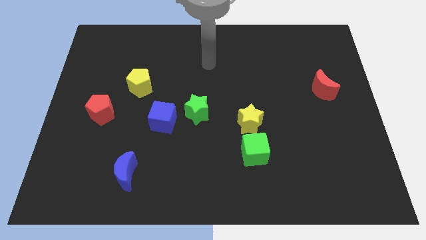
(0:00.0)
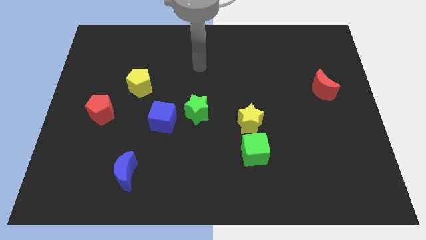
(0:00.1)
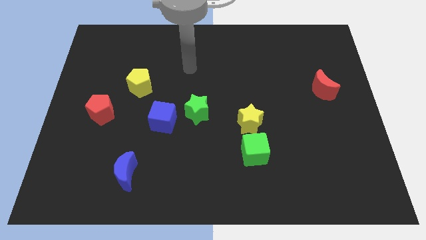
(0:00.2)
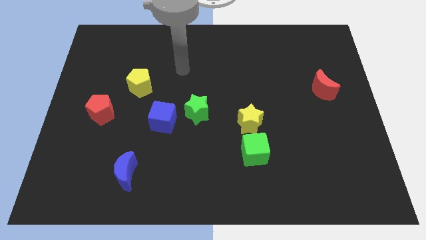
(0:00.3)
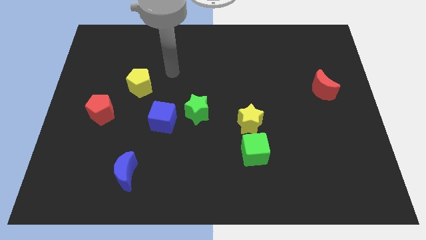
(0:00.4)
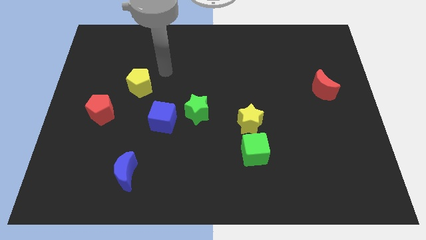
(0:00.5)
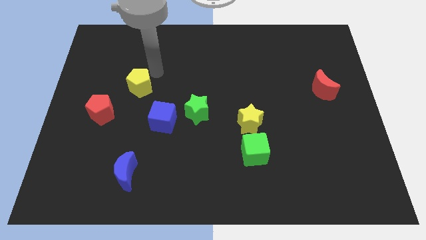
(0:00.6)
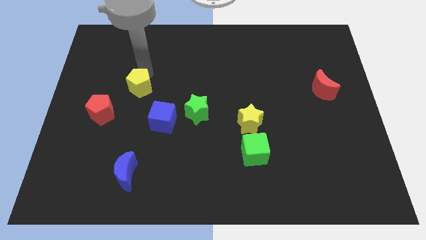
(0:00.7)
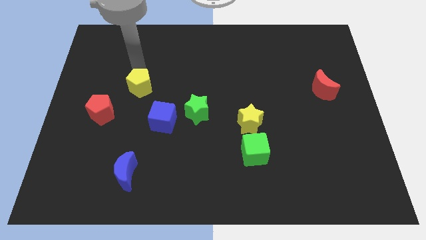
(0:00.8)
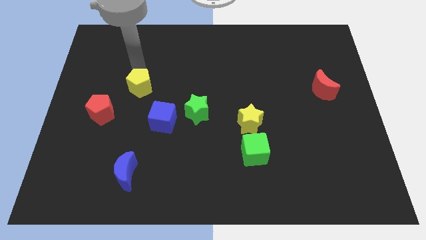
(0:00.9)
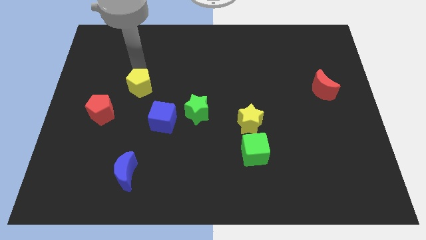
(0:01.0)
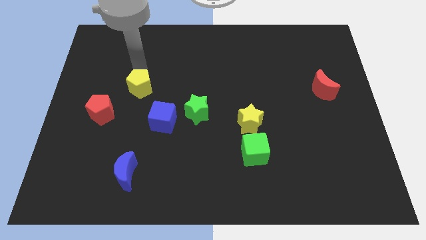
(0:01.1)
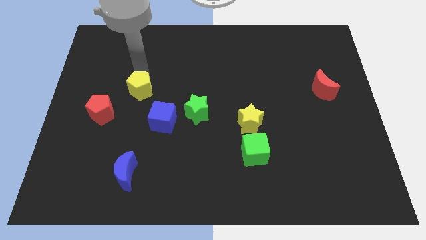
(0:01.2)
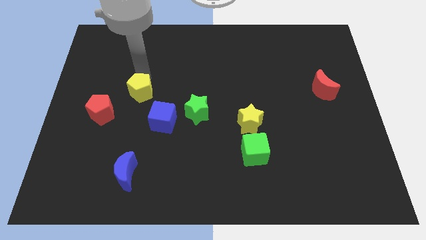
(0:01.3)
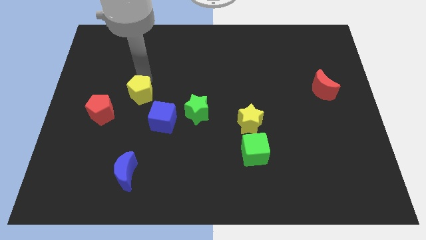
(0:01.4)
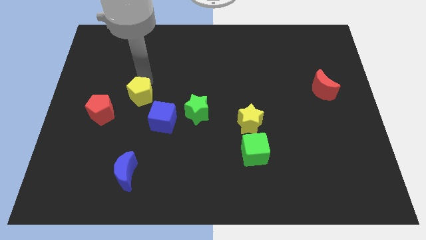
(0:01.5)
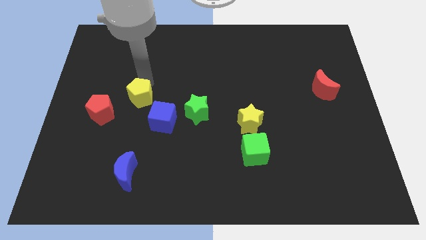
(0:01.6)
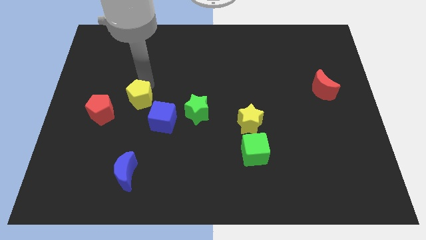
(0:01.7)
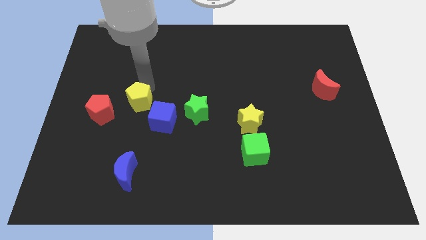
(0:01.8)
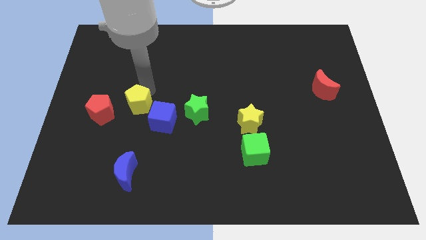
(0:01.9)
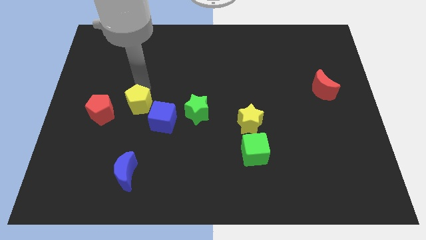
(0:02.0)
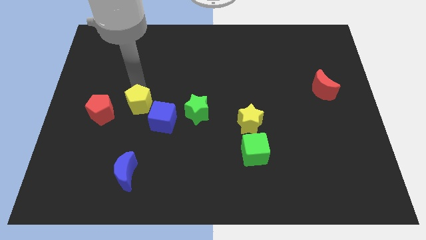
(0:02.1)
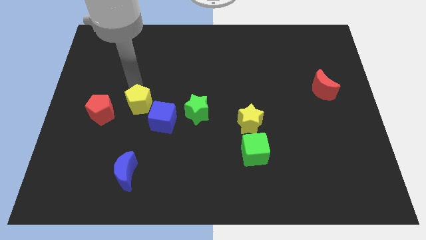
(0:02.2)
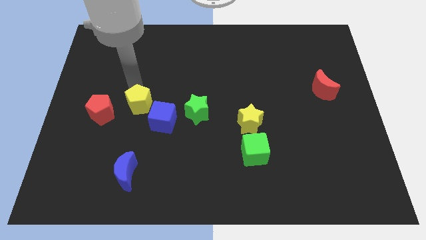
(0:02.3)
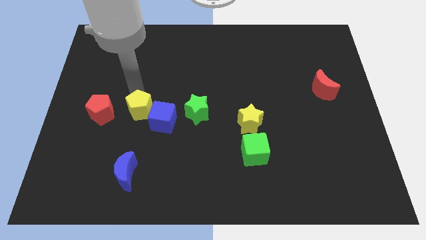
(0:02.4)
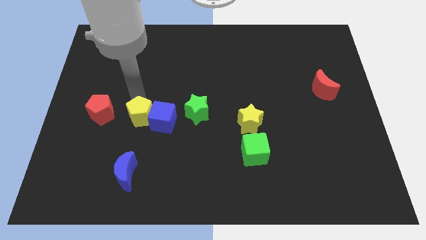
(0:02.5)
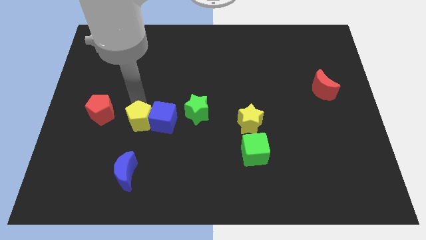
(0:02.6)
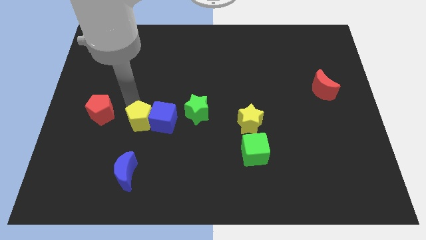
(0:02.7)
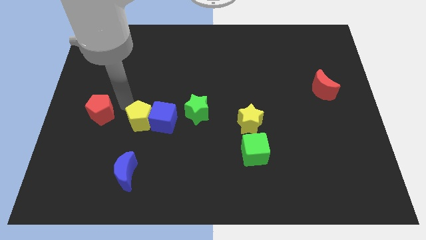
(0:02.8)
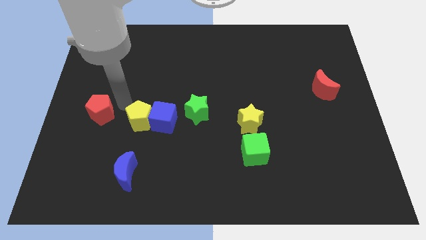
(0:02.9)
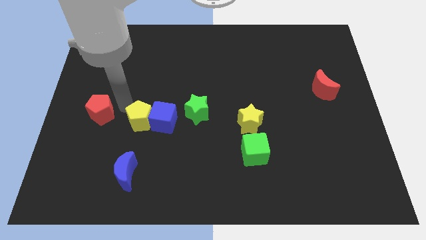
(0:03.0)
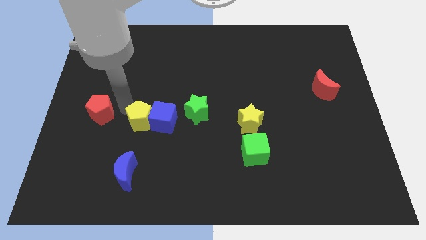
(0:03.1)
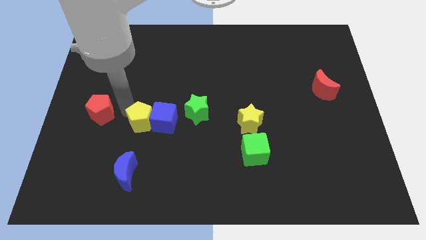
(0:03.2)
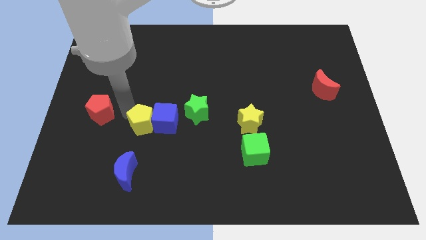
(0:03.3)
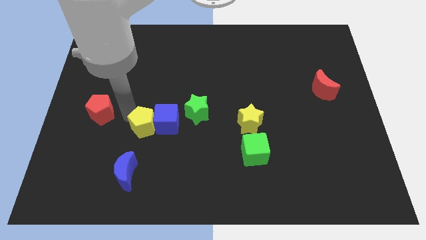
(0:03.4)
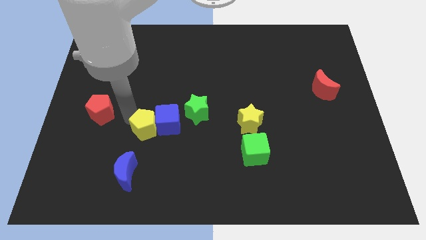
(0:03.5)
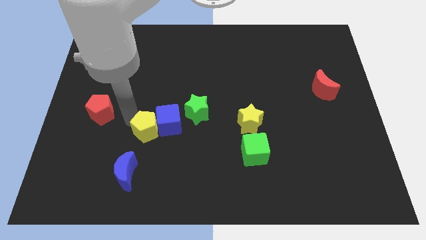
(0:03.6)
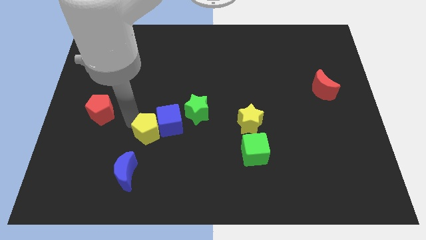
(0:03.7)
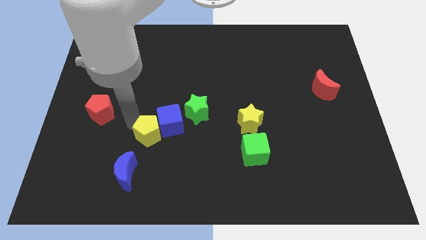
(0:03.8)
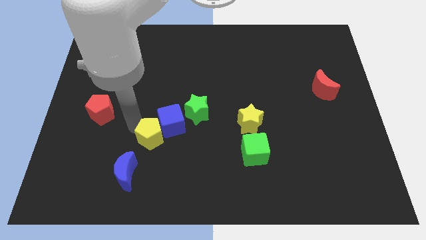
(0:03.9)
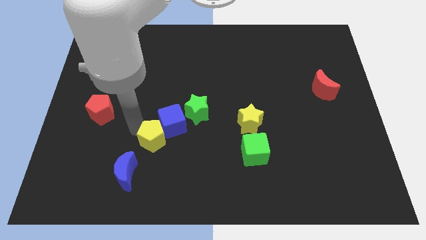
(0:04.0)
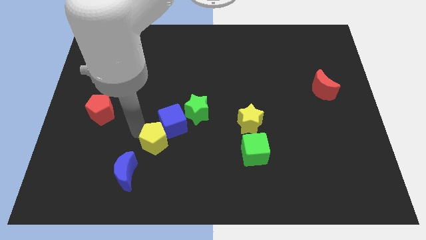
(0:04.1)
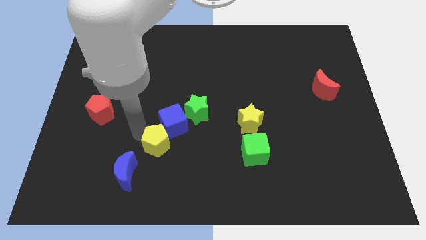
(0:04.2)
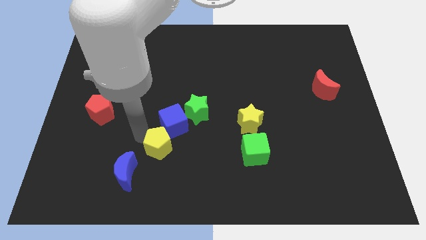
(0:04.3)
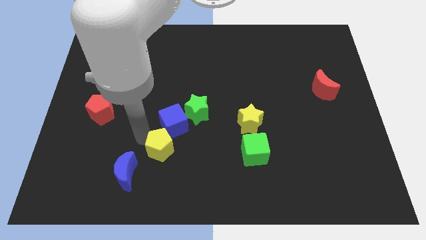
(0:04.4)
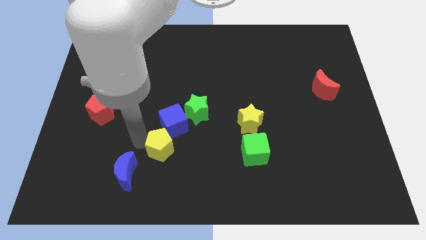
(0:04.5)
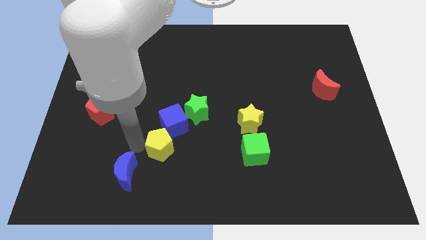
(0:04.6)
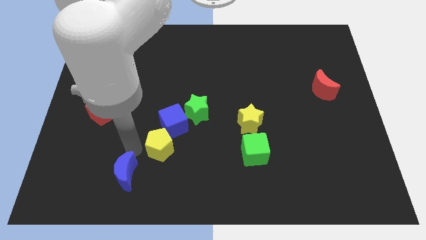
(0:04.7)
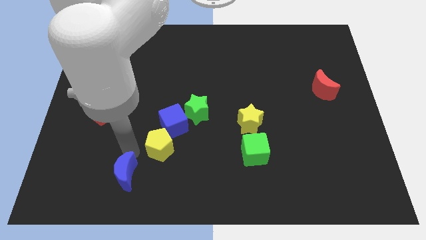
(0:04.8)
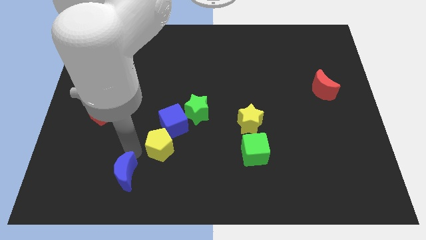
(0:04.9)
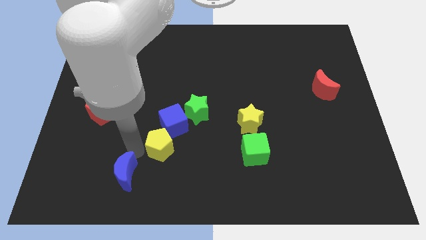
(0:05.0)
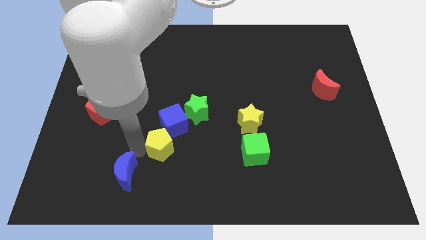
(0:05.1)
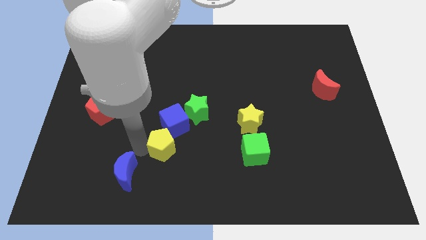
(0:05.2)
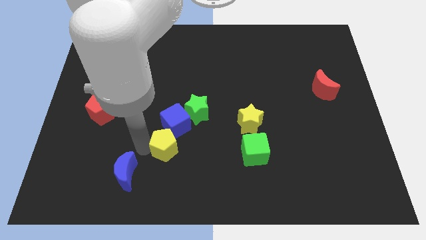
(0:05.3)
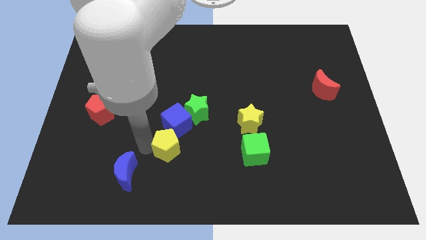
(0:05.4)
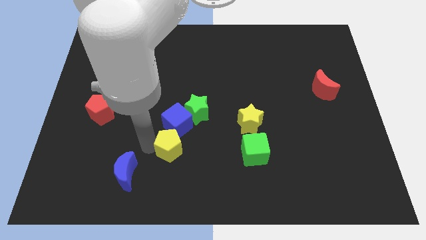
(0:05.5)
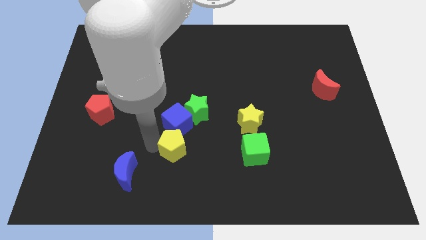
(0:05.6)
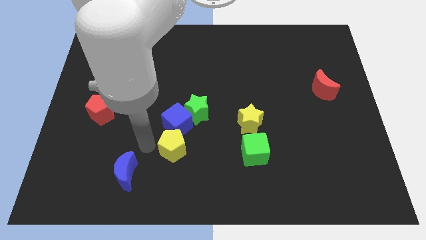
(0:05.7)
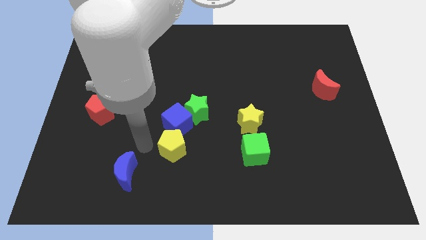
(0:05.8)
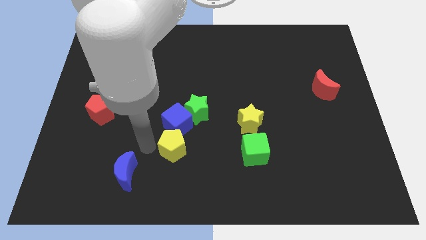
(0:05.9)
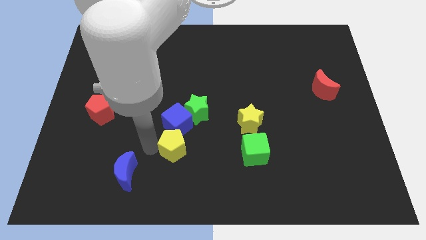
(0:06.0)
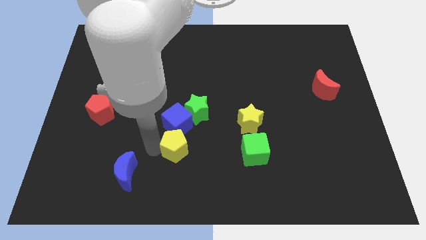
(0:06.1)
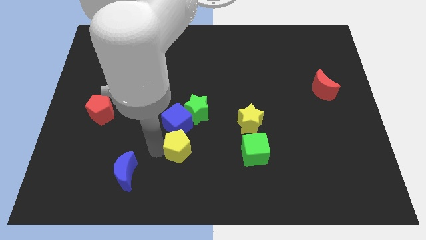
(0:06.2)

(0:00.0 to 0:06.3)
put the yellow pentagon to the left of the green cube

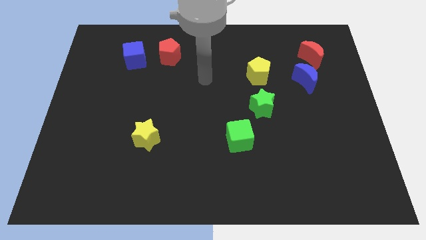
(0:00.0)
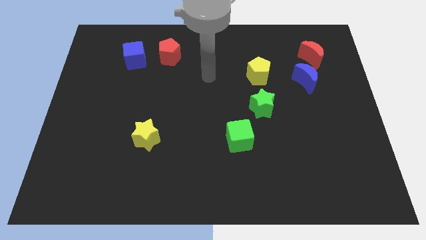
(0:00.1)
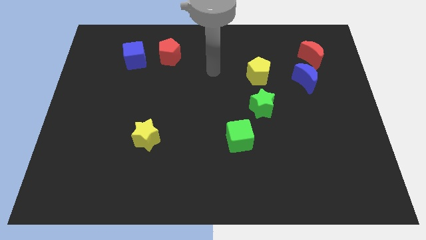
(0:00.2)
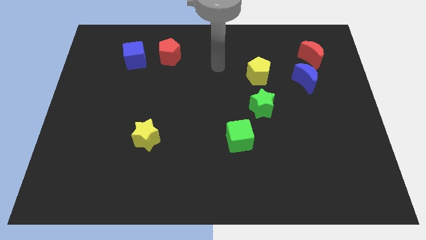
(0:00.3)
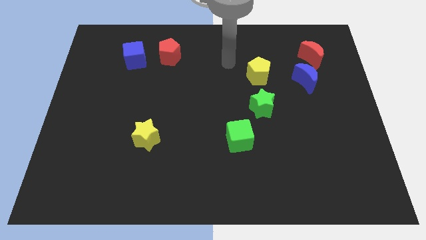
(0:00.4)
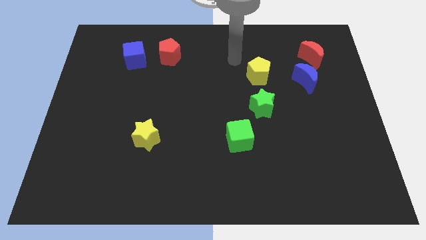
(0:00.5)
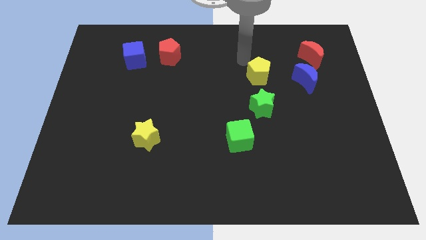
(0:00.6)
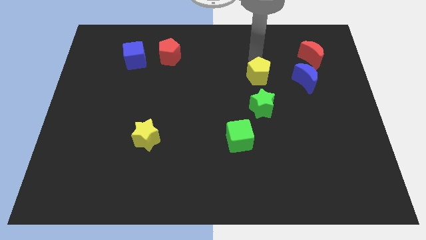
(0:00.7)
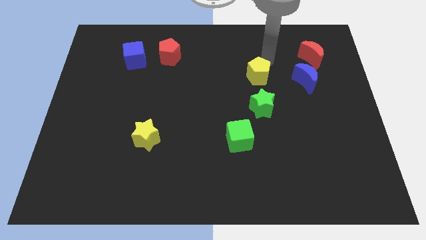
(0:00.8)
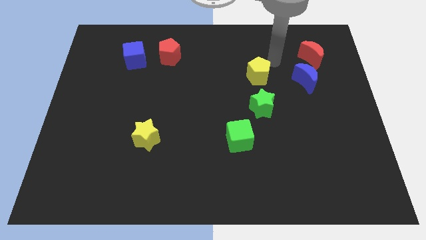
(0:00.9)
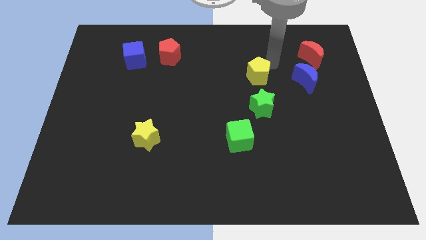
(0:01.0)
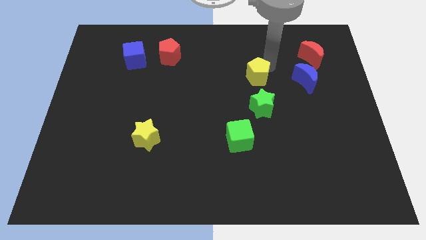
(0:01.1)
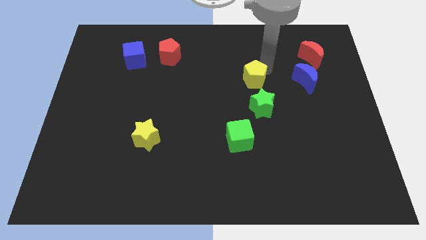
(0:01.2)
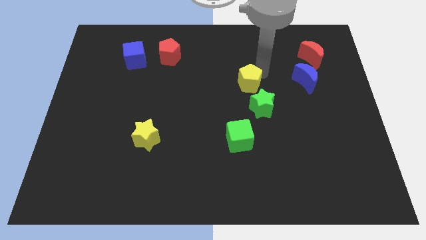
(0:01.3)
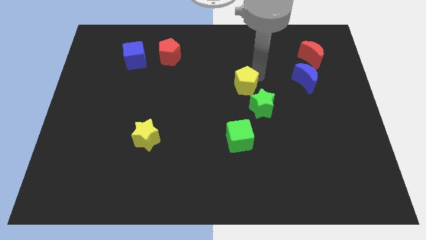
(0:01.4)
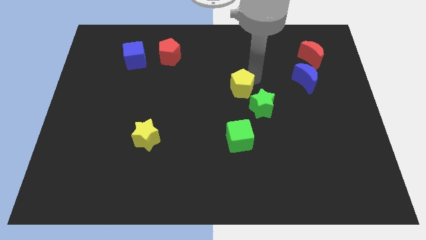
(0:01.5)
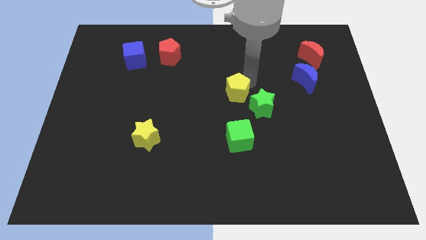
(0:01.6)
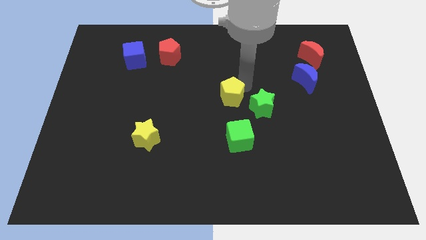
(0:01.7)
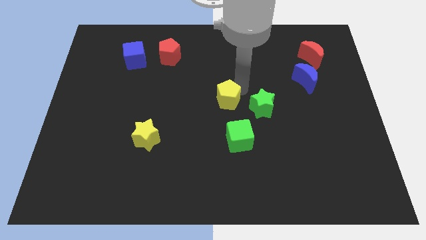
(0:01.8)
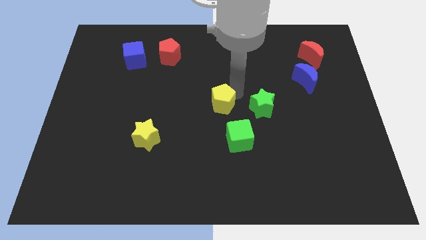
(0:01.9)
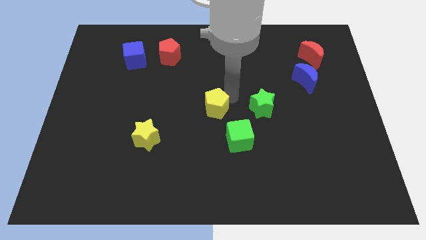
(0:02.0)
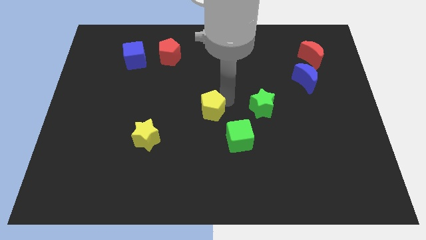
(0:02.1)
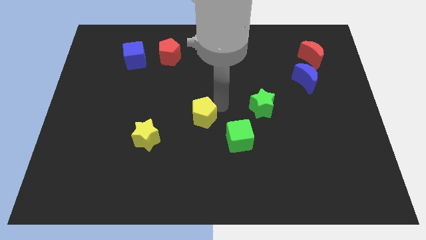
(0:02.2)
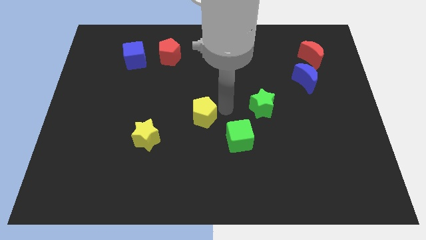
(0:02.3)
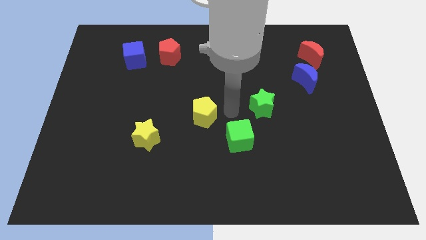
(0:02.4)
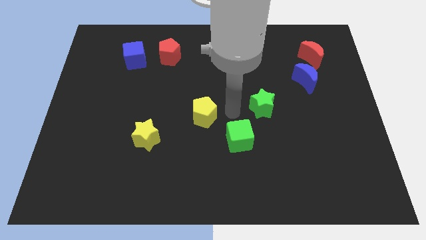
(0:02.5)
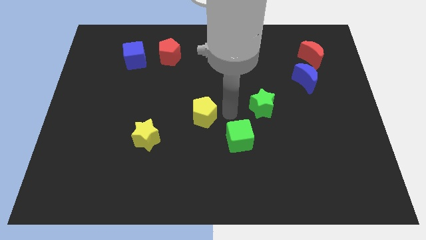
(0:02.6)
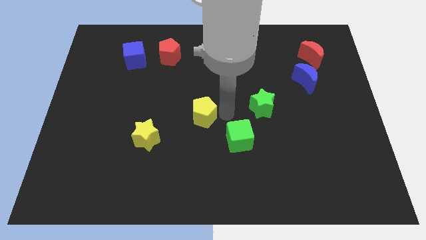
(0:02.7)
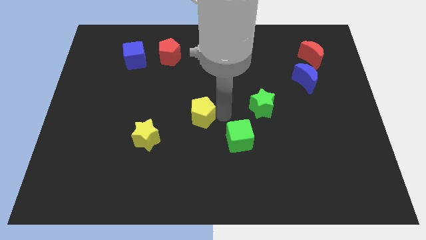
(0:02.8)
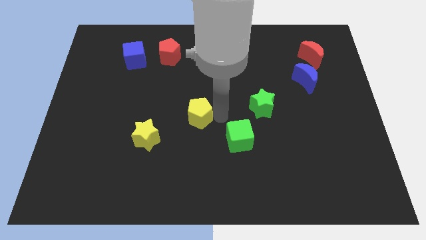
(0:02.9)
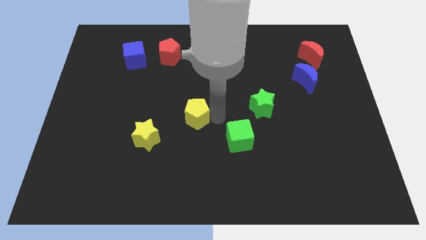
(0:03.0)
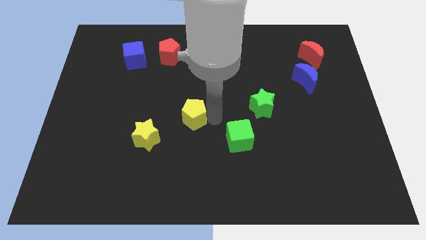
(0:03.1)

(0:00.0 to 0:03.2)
slide the yellow pentagon to the top right of the yellow star
